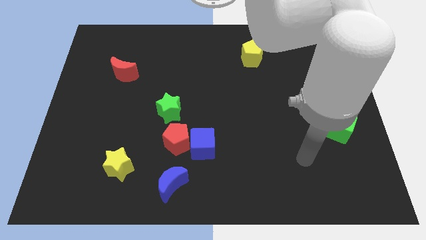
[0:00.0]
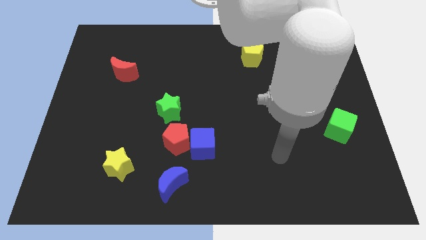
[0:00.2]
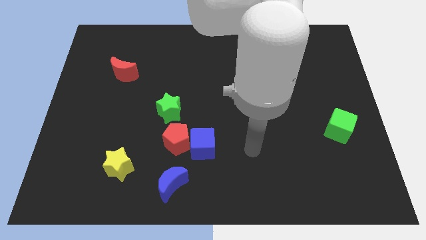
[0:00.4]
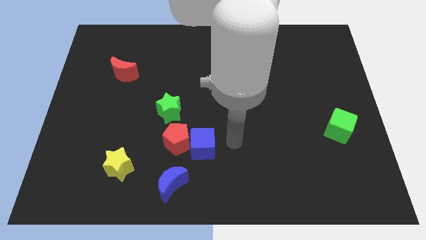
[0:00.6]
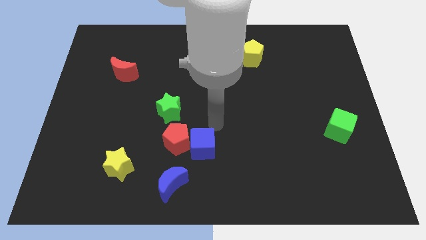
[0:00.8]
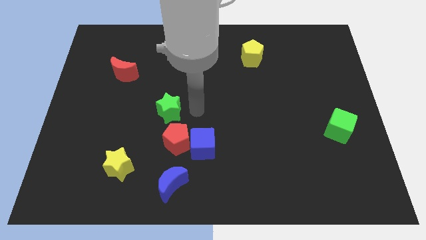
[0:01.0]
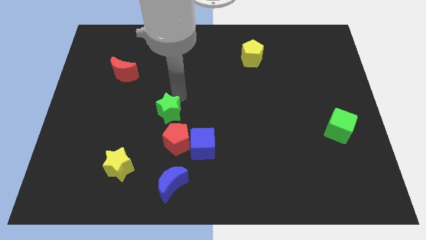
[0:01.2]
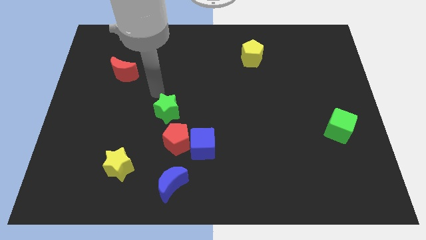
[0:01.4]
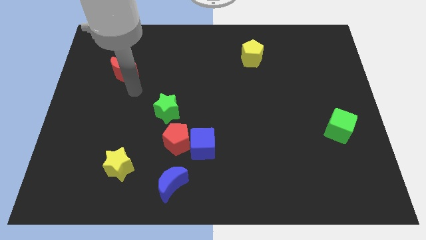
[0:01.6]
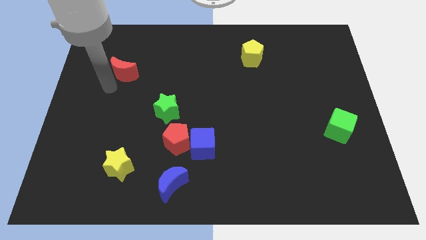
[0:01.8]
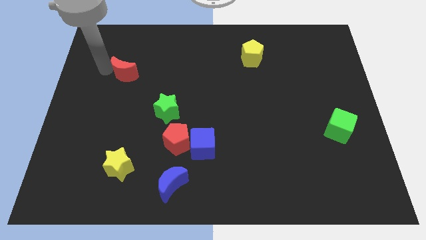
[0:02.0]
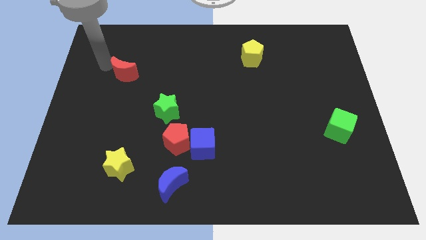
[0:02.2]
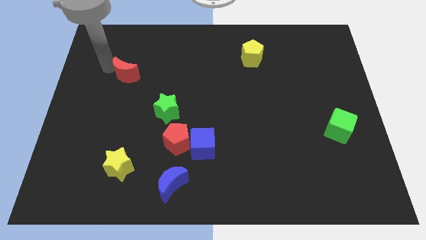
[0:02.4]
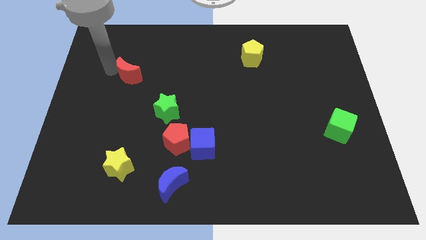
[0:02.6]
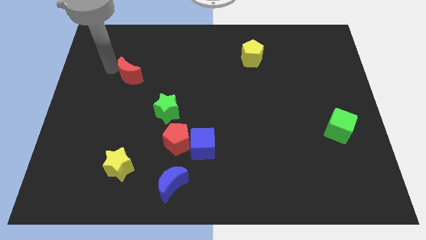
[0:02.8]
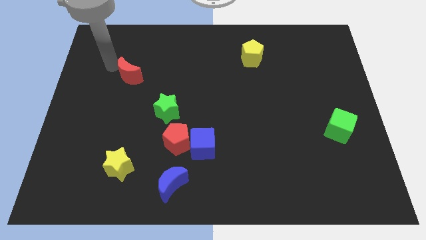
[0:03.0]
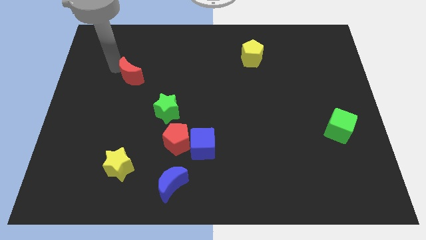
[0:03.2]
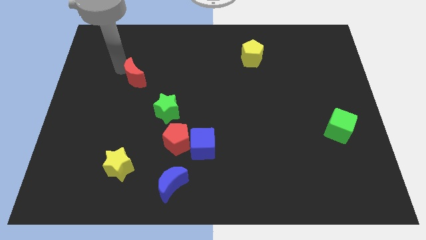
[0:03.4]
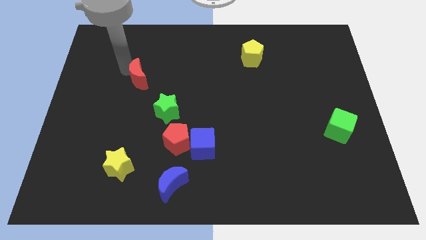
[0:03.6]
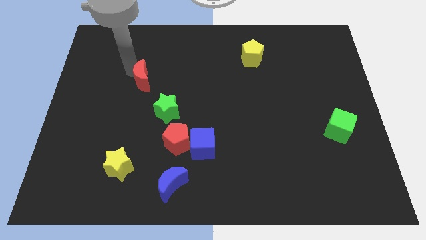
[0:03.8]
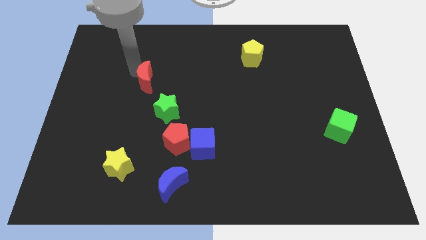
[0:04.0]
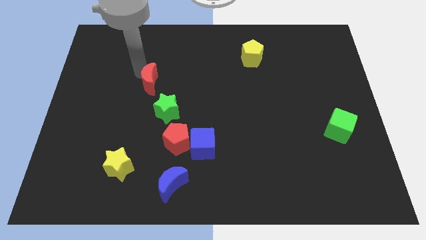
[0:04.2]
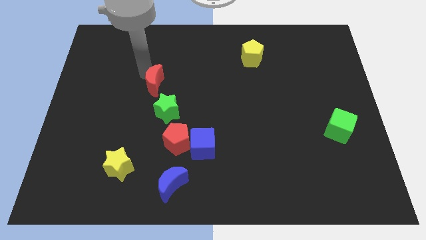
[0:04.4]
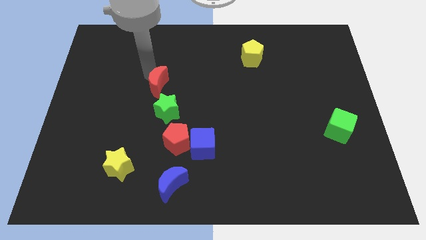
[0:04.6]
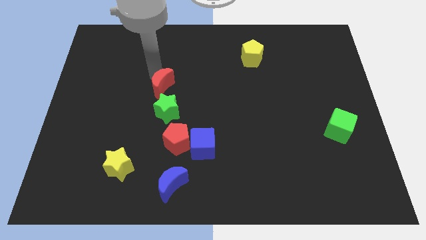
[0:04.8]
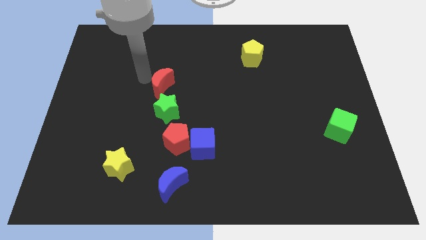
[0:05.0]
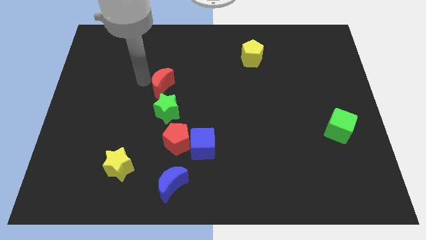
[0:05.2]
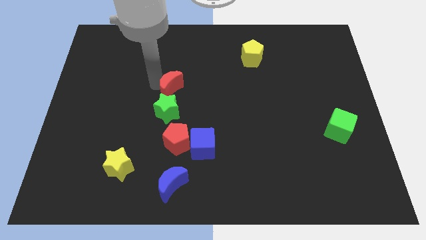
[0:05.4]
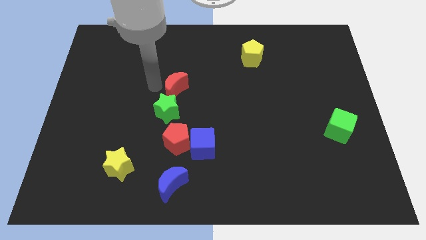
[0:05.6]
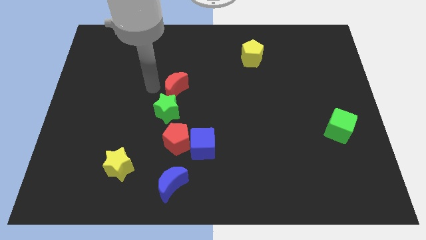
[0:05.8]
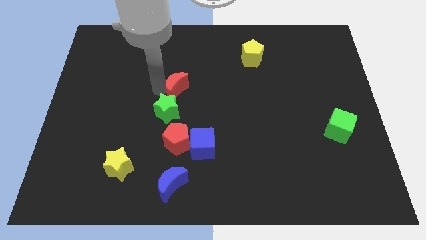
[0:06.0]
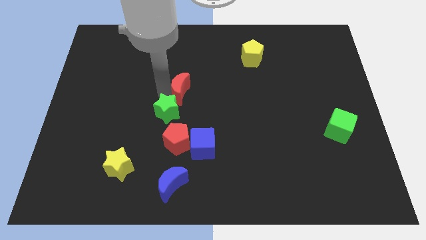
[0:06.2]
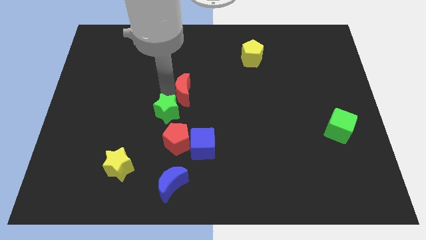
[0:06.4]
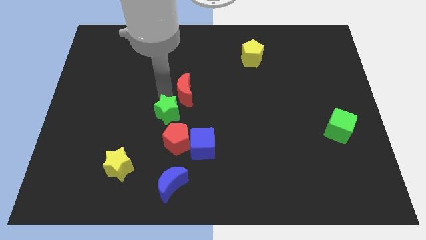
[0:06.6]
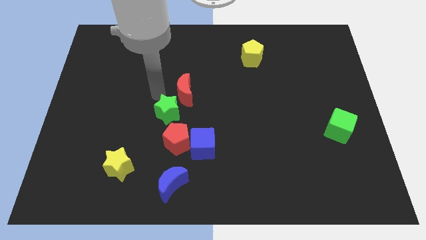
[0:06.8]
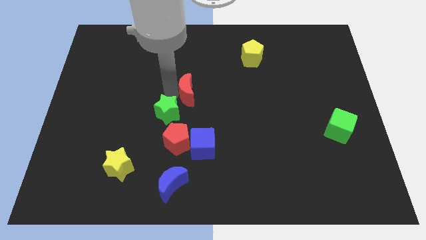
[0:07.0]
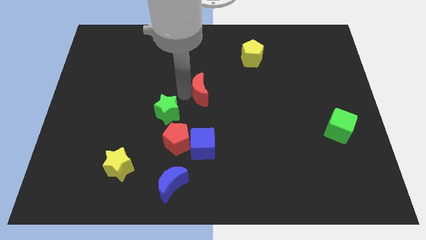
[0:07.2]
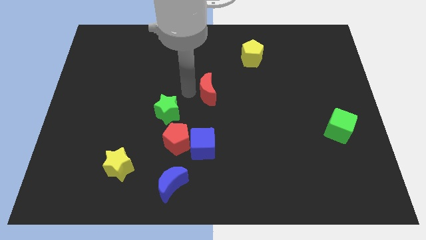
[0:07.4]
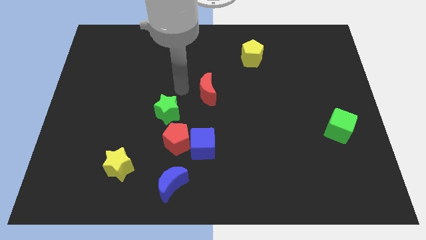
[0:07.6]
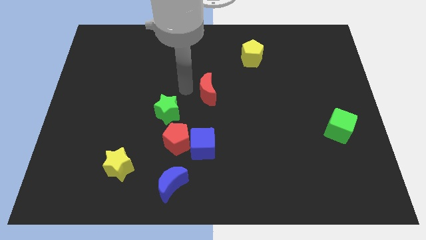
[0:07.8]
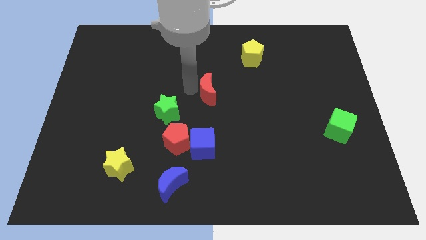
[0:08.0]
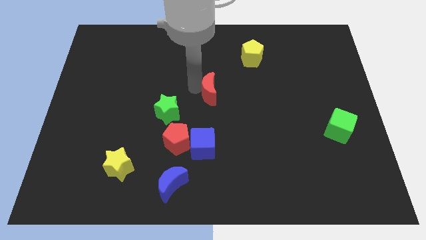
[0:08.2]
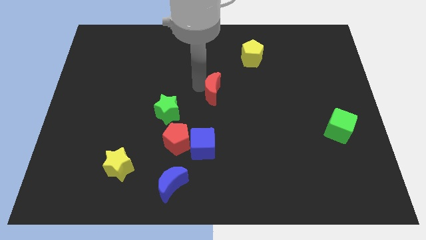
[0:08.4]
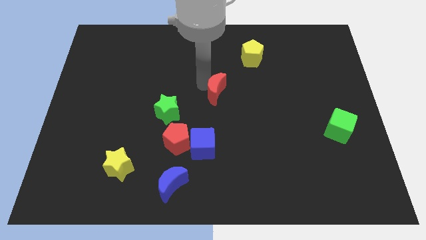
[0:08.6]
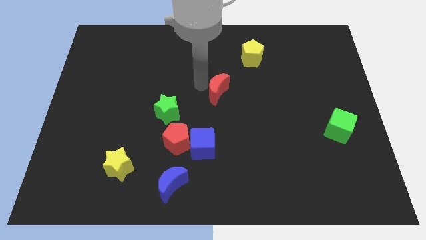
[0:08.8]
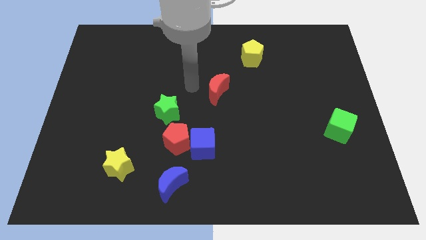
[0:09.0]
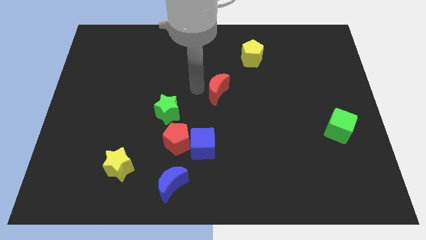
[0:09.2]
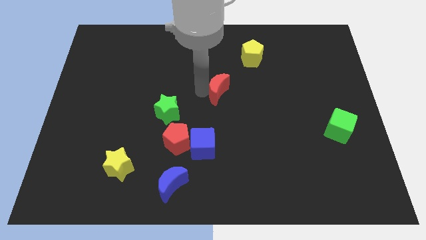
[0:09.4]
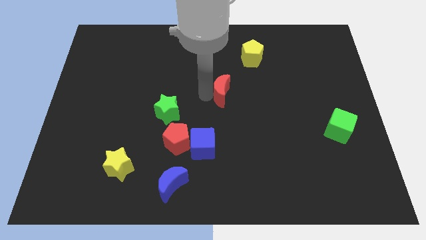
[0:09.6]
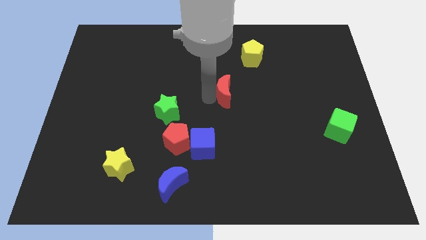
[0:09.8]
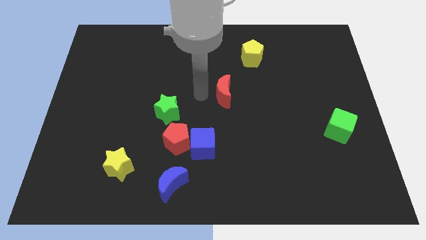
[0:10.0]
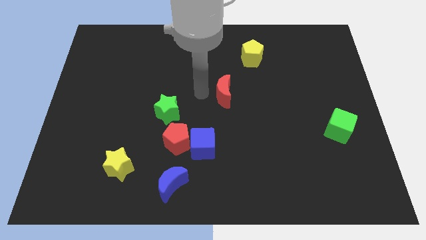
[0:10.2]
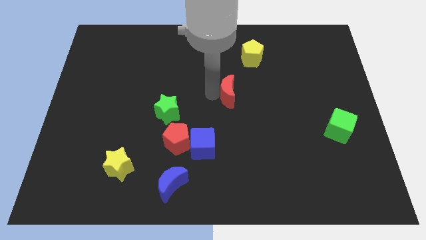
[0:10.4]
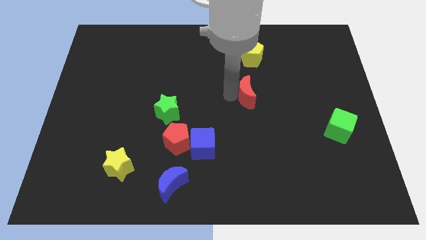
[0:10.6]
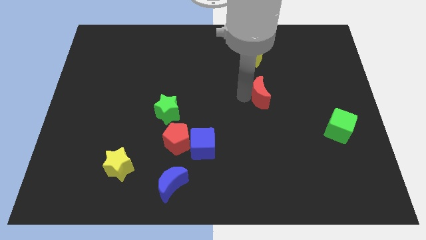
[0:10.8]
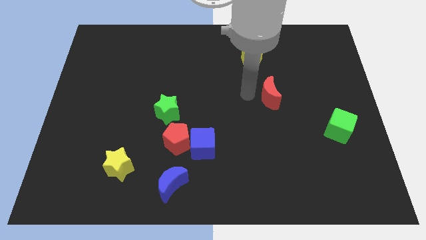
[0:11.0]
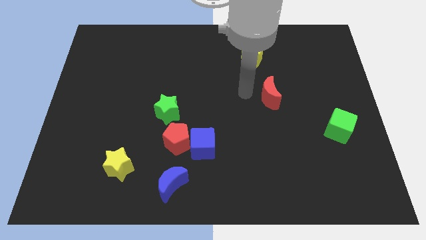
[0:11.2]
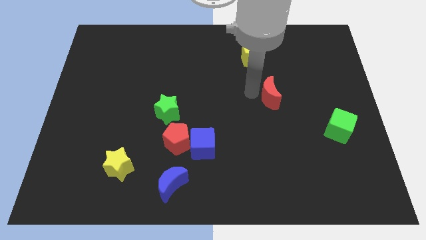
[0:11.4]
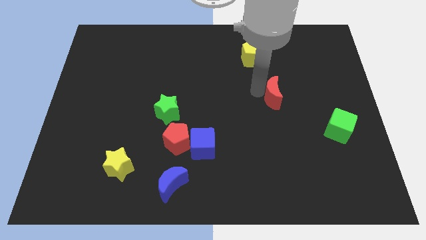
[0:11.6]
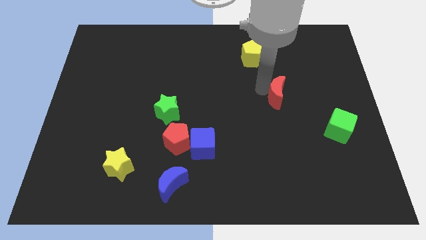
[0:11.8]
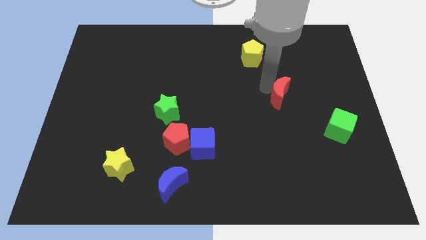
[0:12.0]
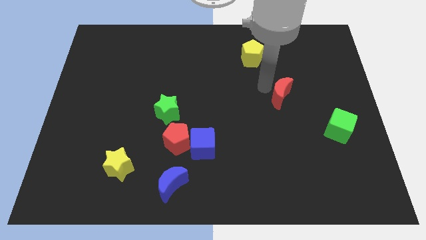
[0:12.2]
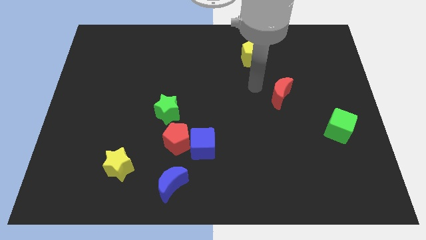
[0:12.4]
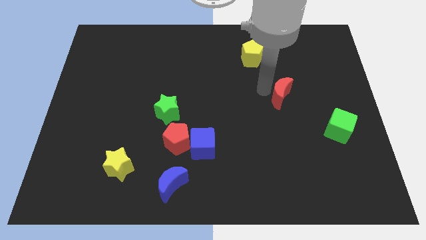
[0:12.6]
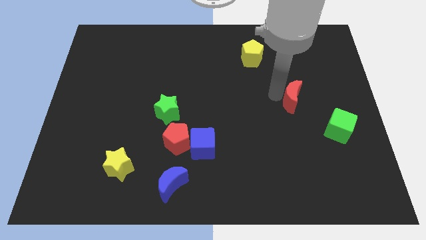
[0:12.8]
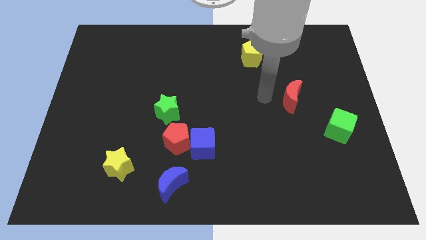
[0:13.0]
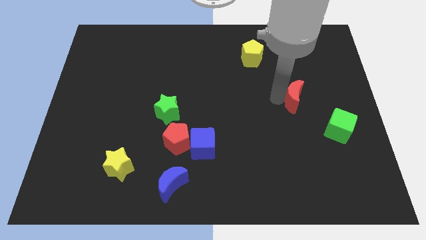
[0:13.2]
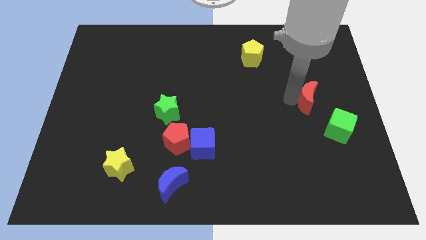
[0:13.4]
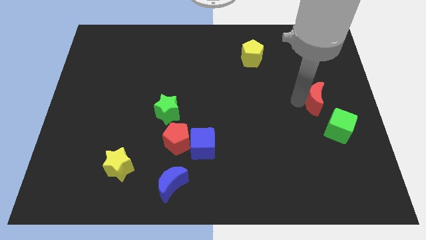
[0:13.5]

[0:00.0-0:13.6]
slide the red moon above the green cube
